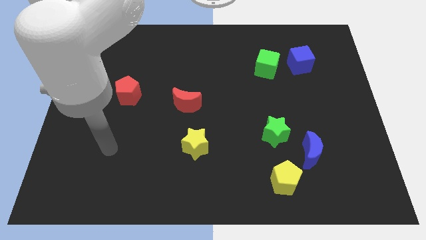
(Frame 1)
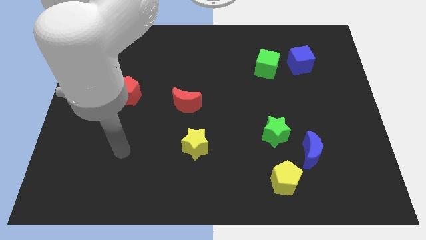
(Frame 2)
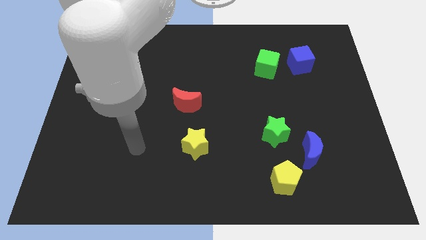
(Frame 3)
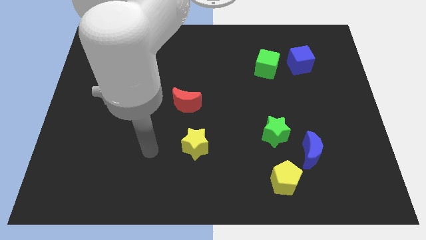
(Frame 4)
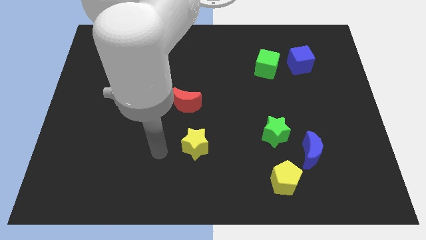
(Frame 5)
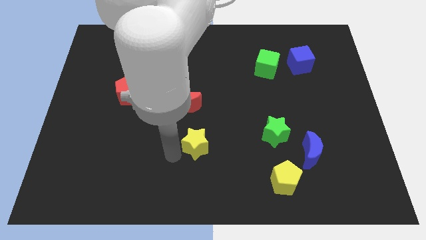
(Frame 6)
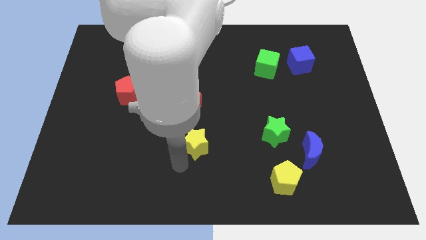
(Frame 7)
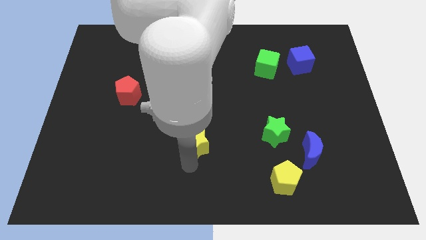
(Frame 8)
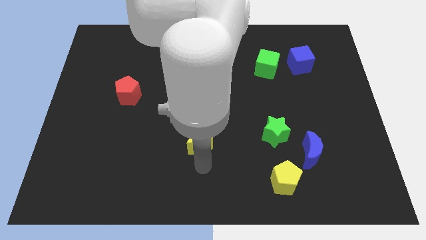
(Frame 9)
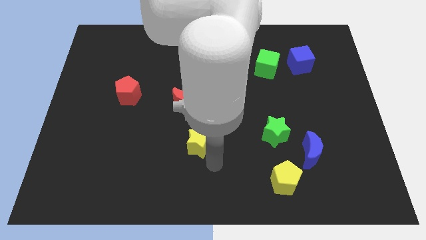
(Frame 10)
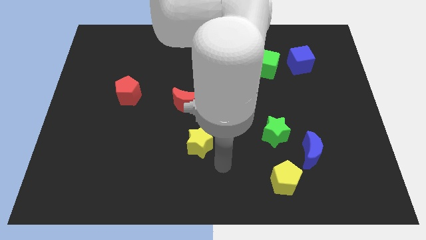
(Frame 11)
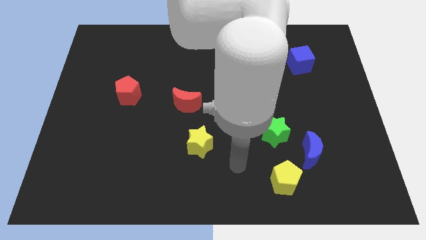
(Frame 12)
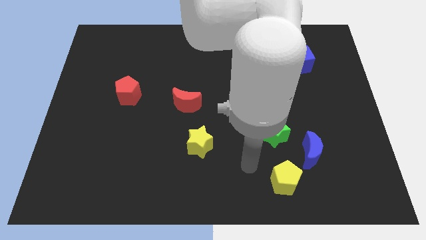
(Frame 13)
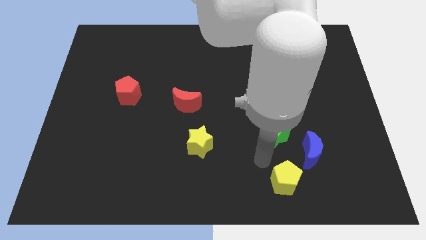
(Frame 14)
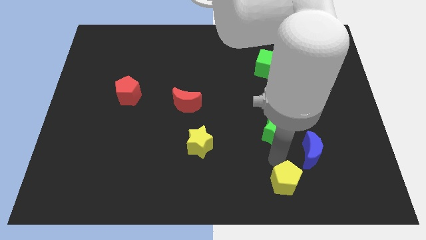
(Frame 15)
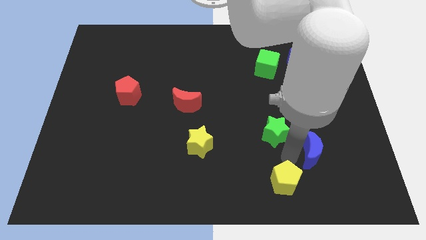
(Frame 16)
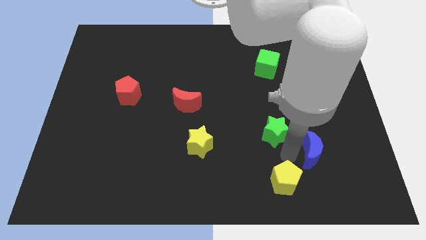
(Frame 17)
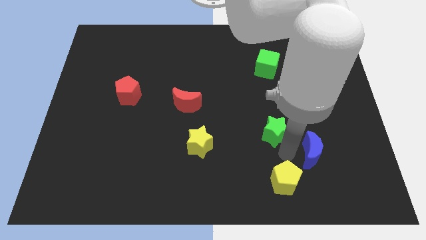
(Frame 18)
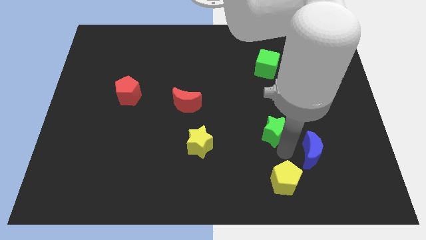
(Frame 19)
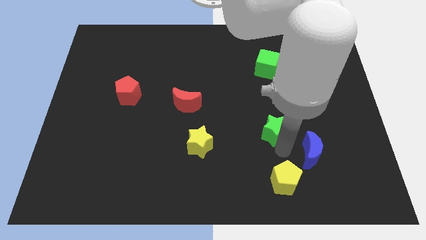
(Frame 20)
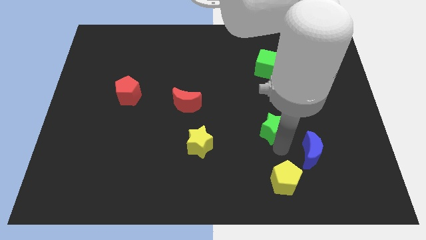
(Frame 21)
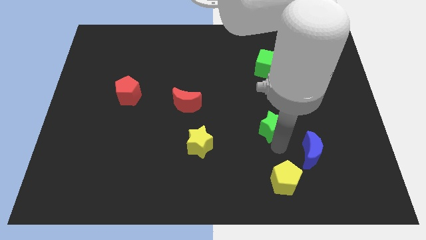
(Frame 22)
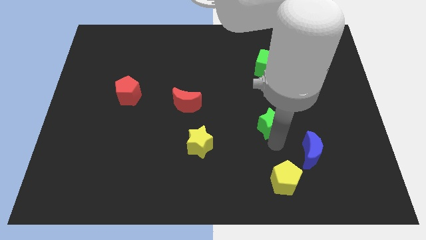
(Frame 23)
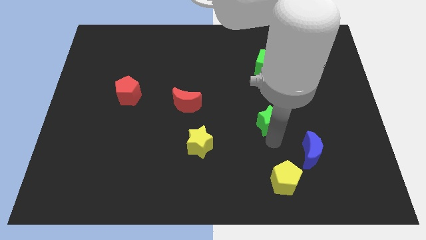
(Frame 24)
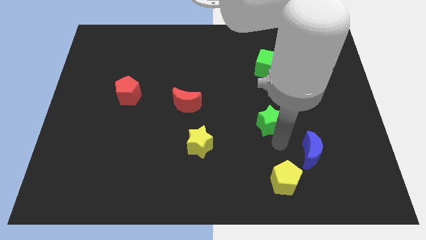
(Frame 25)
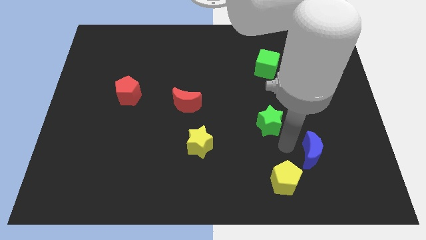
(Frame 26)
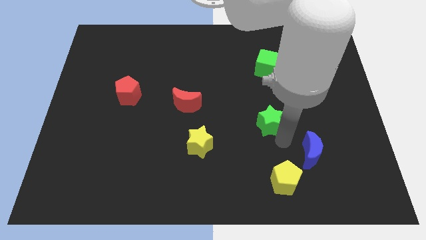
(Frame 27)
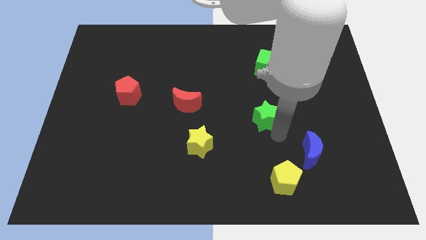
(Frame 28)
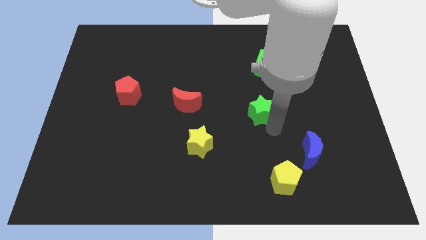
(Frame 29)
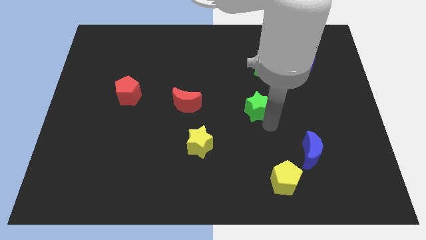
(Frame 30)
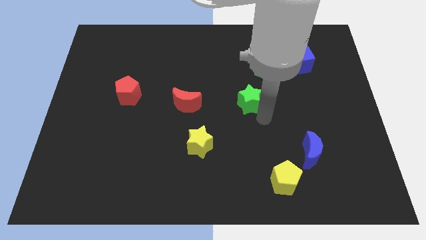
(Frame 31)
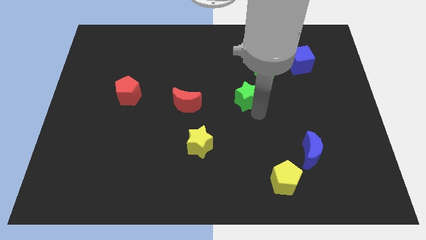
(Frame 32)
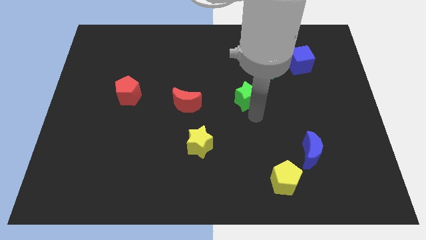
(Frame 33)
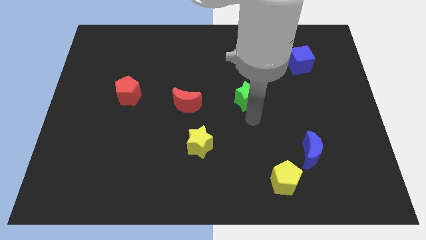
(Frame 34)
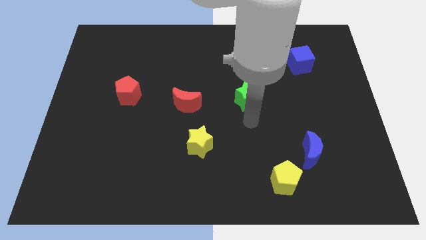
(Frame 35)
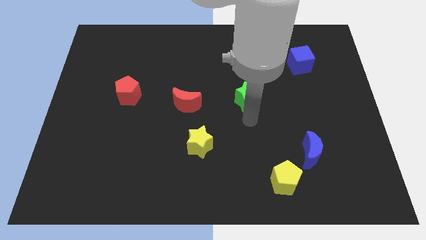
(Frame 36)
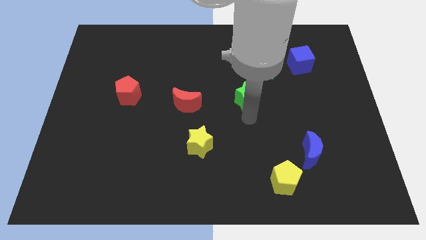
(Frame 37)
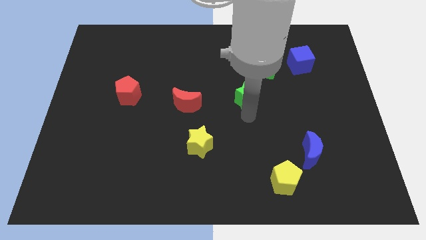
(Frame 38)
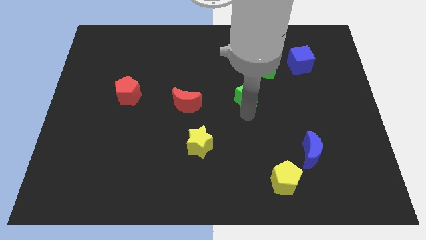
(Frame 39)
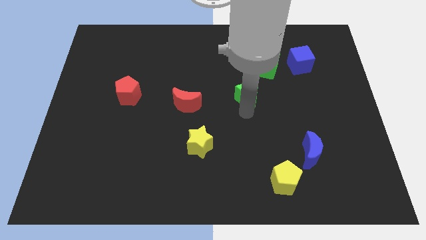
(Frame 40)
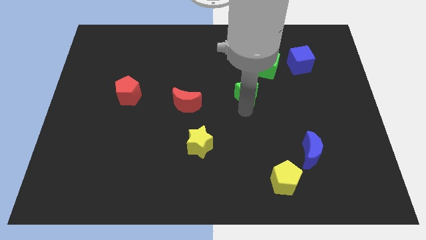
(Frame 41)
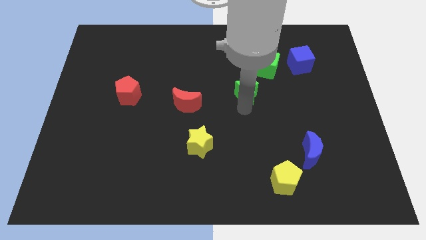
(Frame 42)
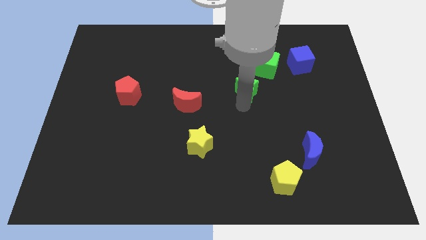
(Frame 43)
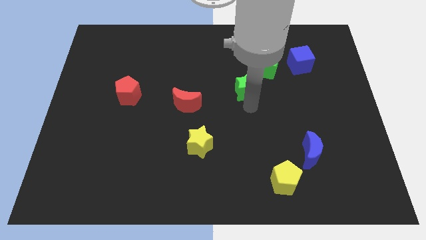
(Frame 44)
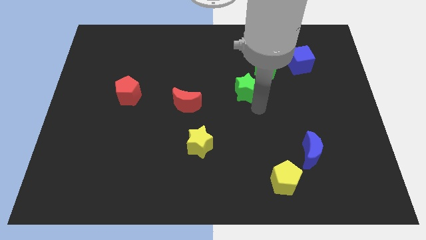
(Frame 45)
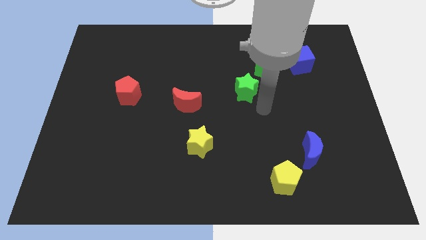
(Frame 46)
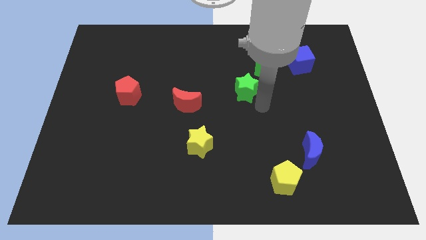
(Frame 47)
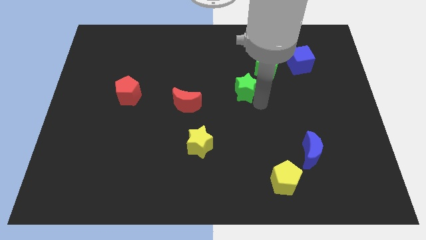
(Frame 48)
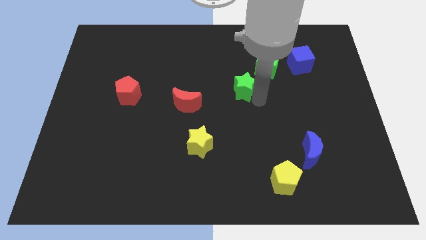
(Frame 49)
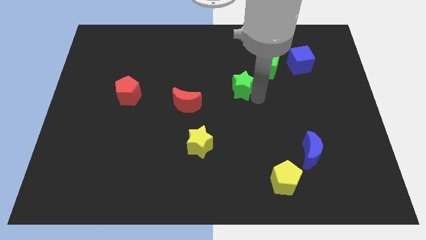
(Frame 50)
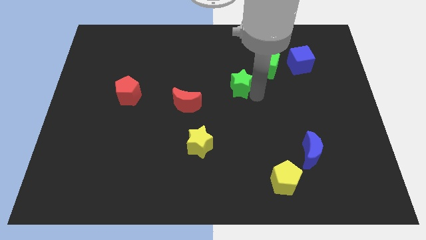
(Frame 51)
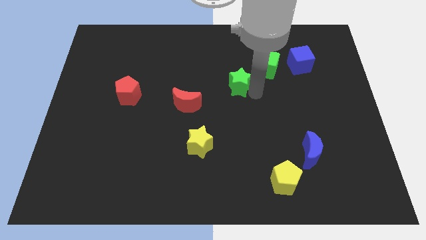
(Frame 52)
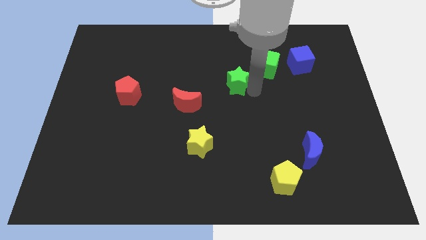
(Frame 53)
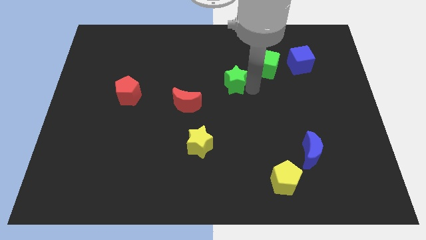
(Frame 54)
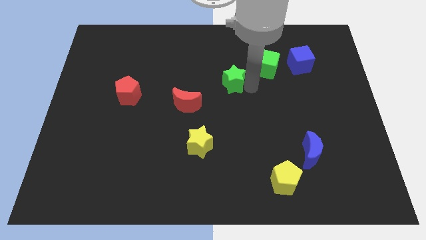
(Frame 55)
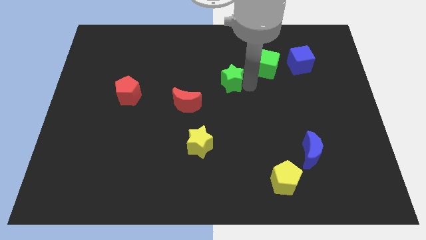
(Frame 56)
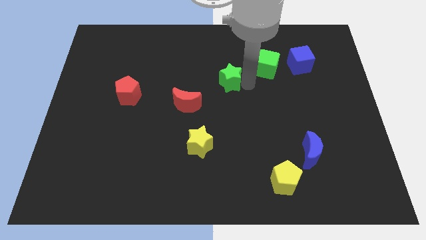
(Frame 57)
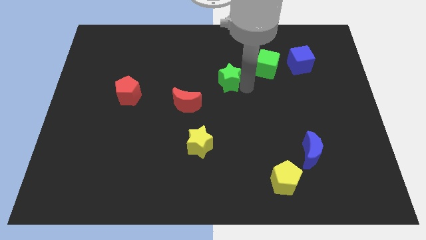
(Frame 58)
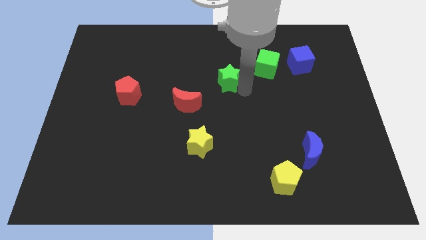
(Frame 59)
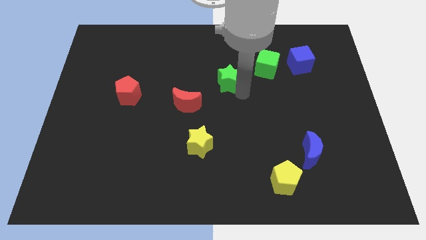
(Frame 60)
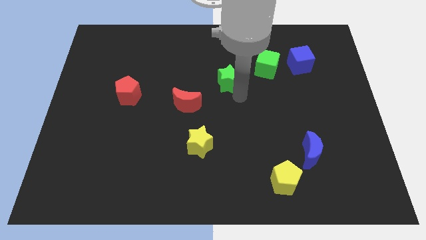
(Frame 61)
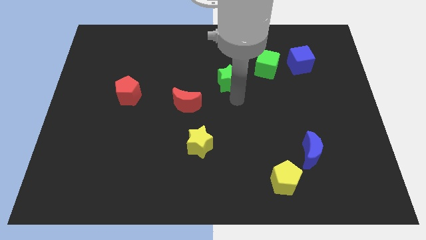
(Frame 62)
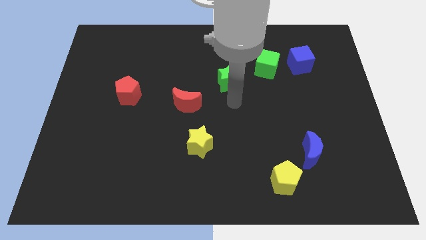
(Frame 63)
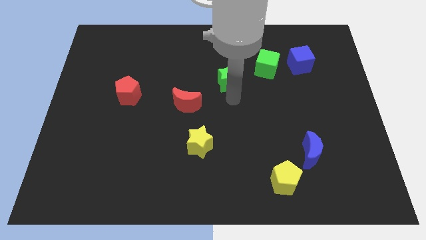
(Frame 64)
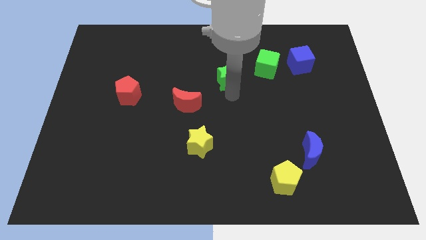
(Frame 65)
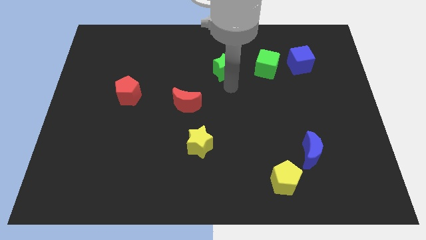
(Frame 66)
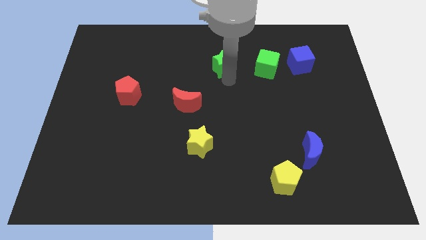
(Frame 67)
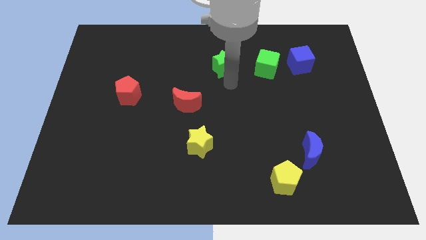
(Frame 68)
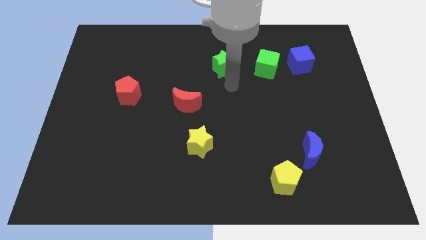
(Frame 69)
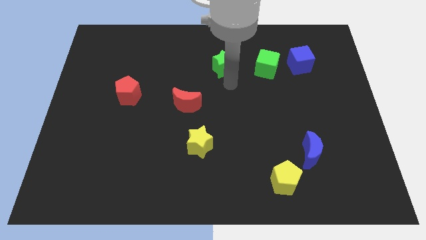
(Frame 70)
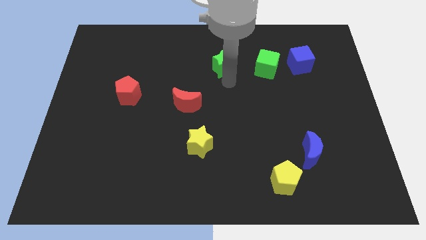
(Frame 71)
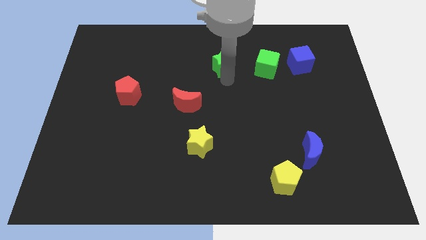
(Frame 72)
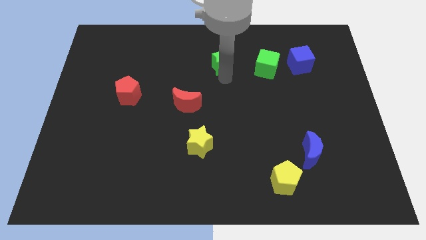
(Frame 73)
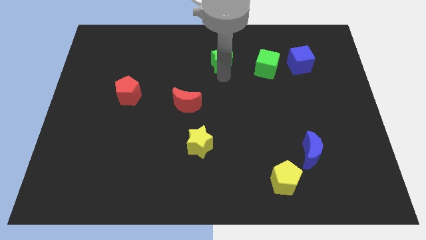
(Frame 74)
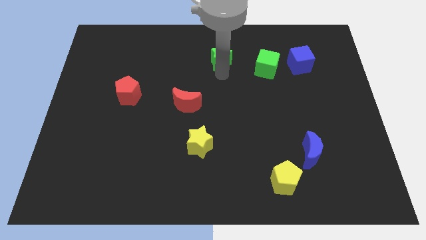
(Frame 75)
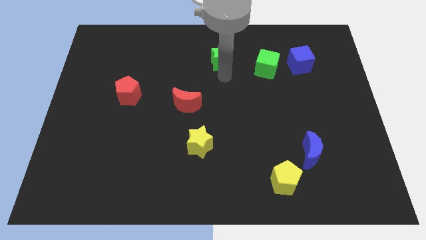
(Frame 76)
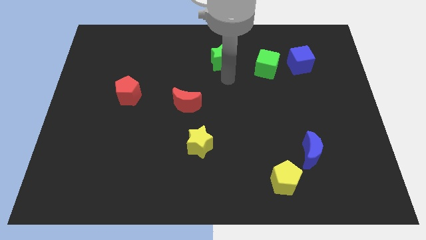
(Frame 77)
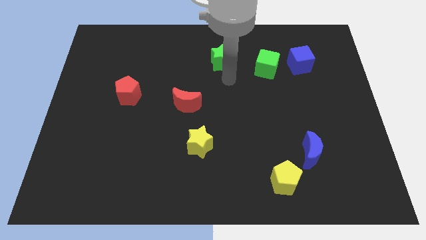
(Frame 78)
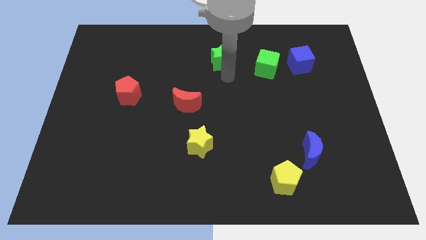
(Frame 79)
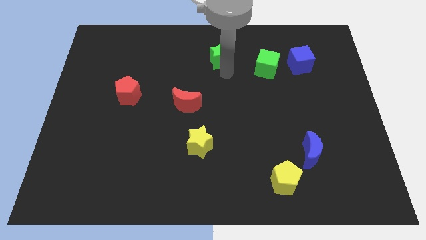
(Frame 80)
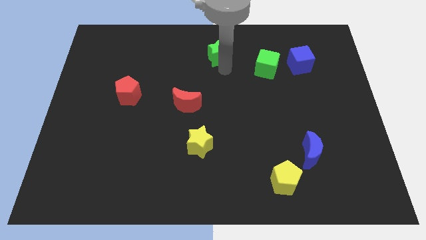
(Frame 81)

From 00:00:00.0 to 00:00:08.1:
move the green star to the top side
